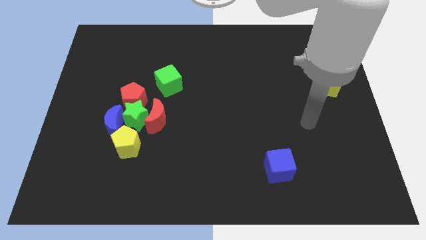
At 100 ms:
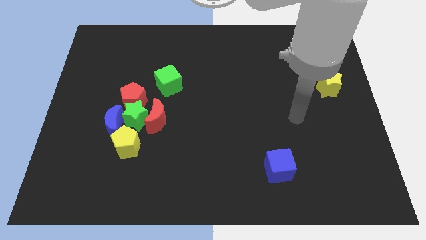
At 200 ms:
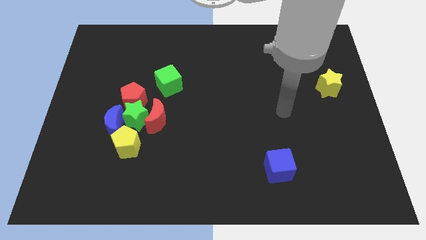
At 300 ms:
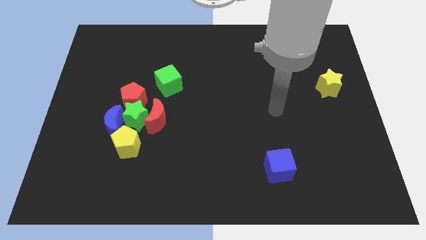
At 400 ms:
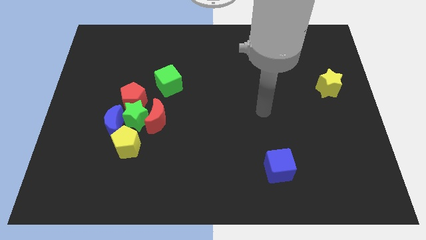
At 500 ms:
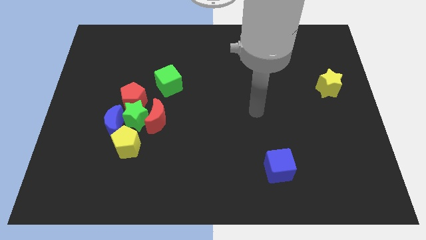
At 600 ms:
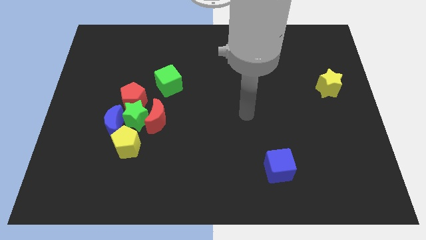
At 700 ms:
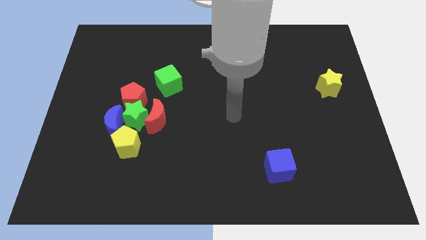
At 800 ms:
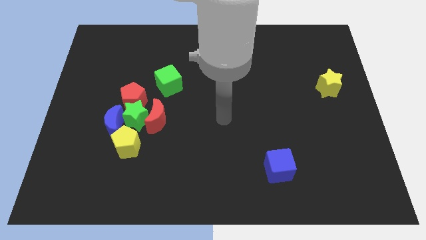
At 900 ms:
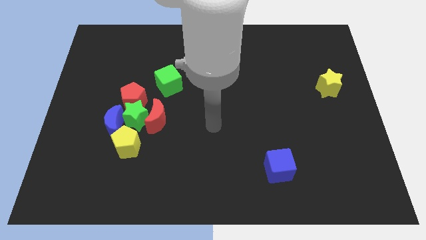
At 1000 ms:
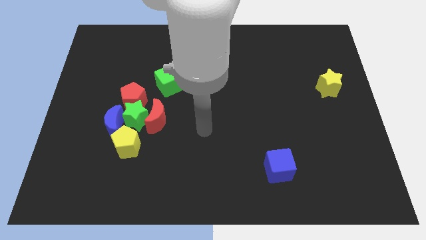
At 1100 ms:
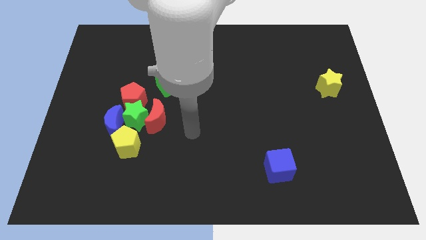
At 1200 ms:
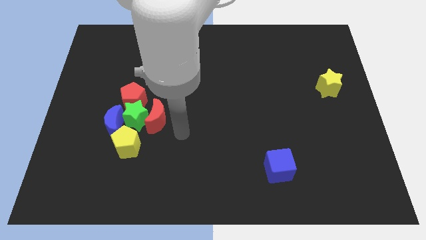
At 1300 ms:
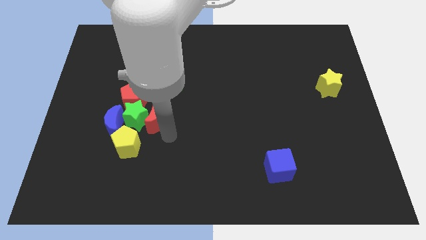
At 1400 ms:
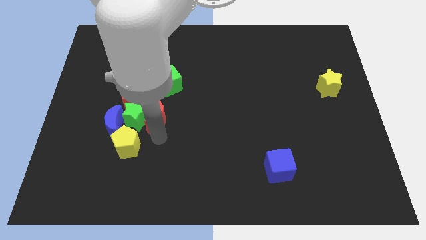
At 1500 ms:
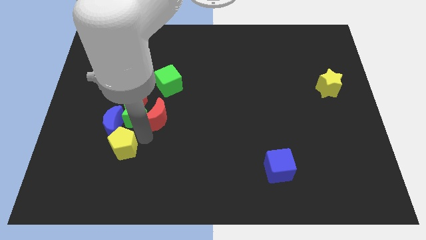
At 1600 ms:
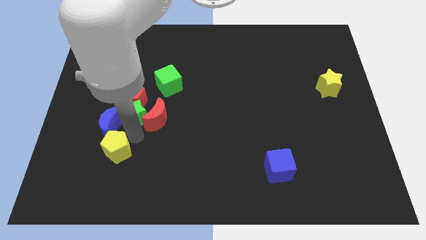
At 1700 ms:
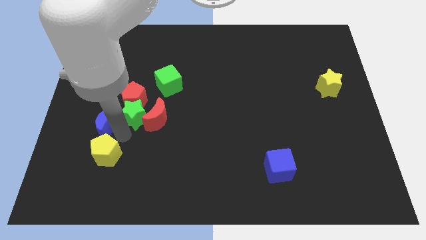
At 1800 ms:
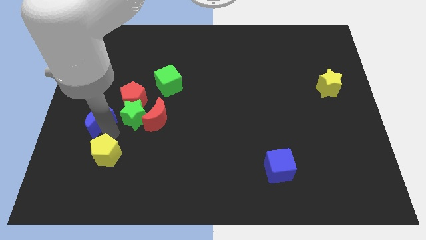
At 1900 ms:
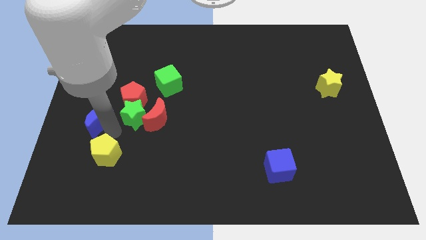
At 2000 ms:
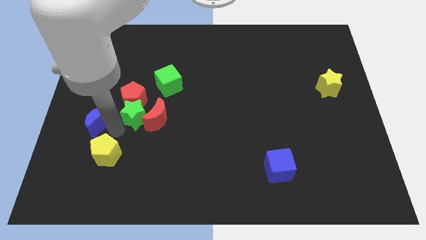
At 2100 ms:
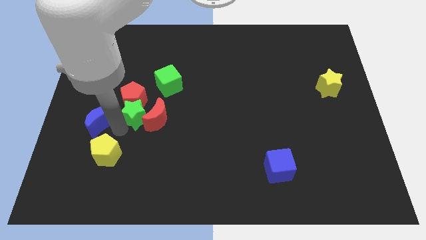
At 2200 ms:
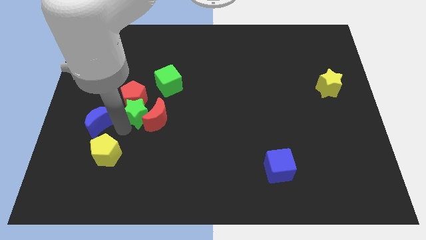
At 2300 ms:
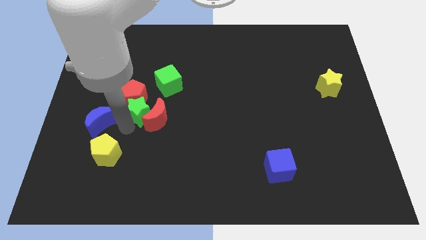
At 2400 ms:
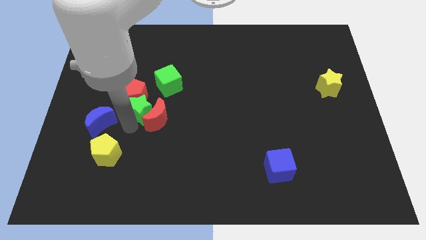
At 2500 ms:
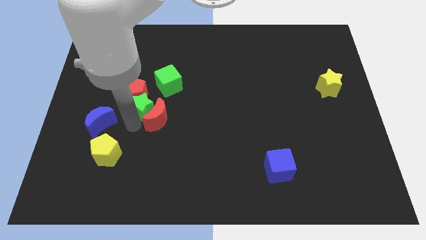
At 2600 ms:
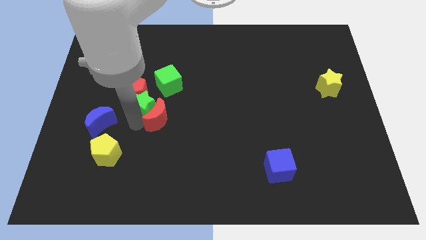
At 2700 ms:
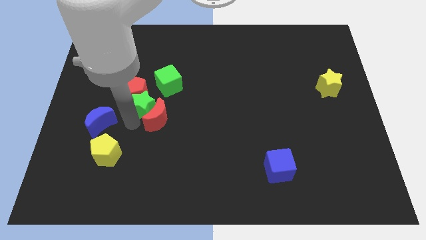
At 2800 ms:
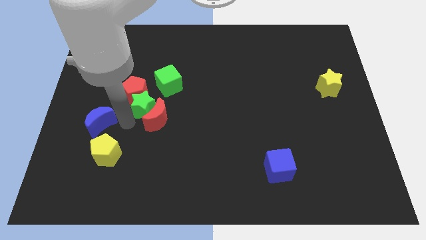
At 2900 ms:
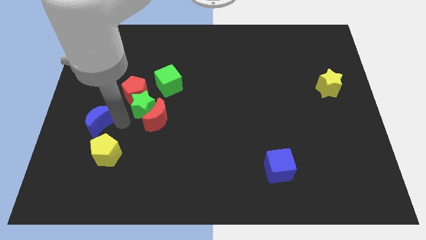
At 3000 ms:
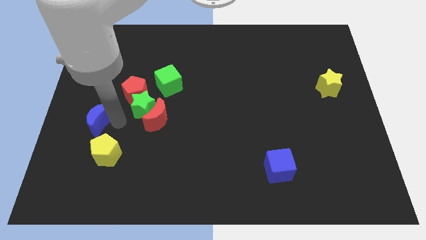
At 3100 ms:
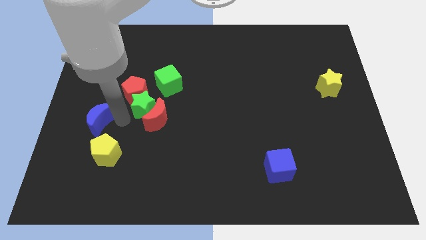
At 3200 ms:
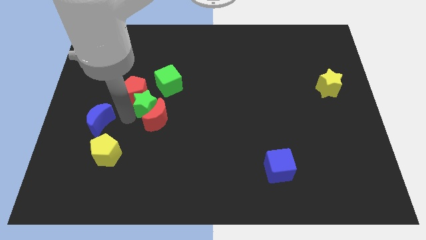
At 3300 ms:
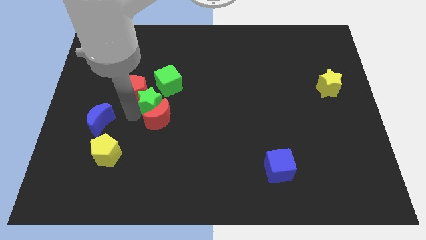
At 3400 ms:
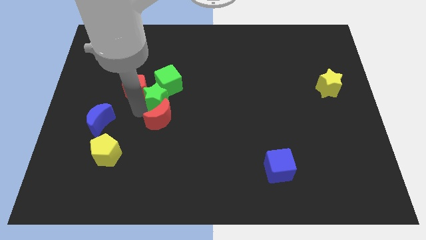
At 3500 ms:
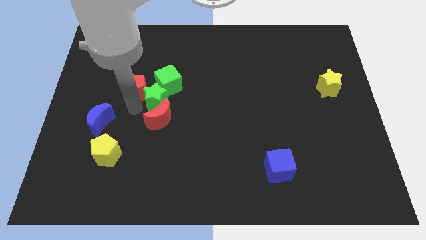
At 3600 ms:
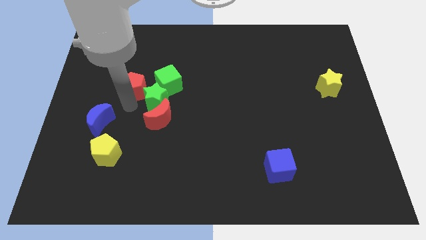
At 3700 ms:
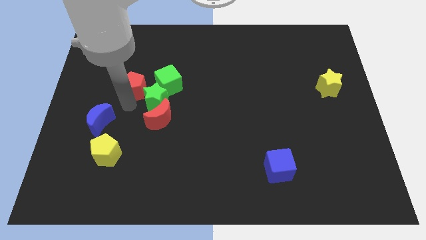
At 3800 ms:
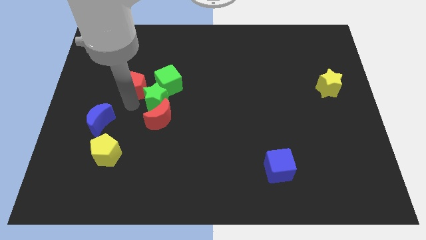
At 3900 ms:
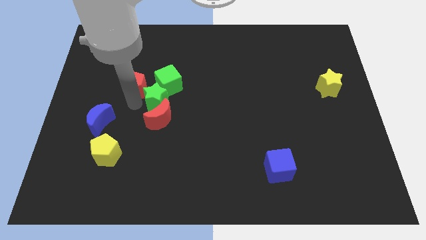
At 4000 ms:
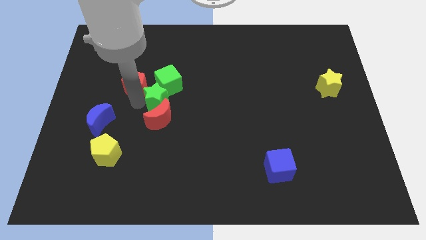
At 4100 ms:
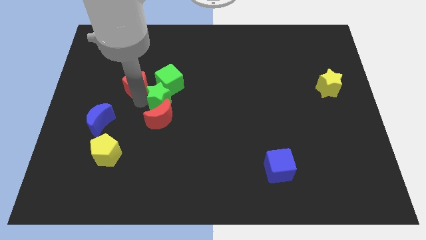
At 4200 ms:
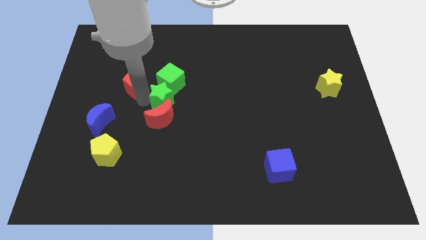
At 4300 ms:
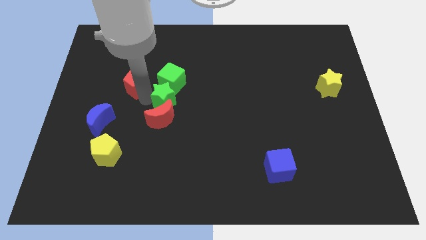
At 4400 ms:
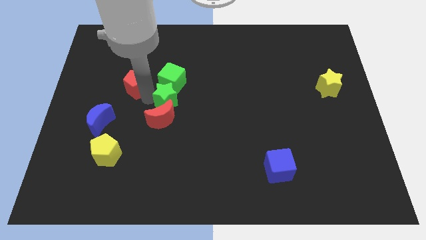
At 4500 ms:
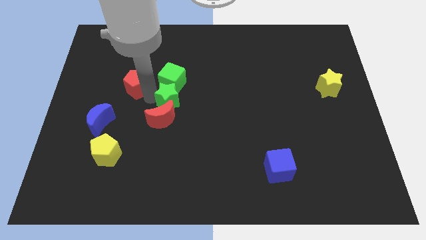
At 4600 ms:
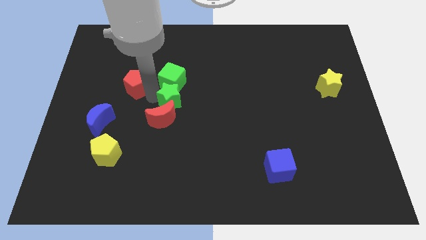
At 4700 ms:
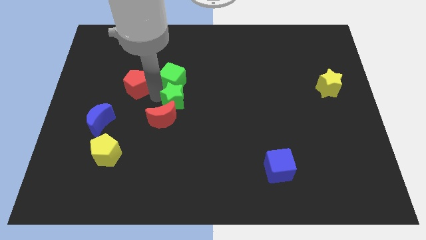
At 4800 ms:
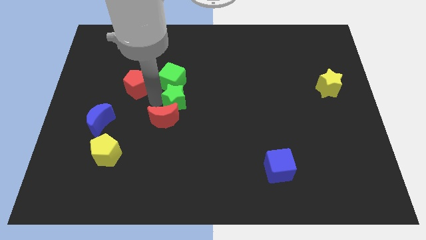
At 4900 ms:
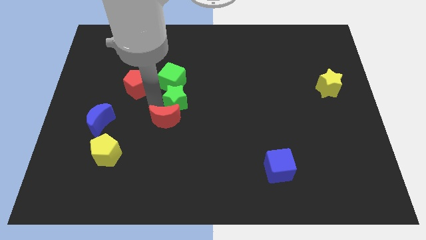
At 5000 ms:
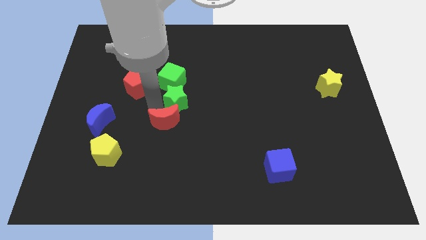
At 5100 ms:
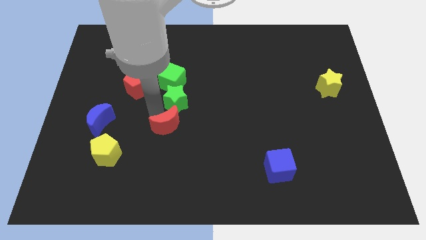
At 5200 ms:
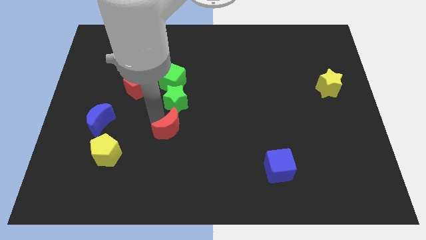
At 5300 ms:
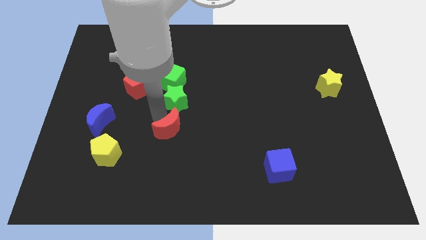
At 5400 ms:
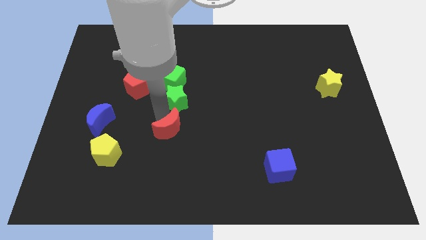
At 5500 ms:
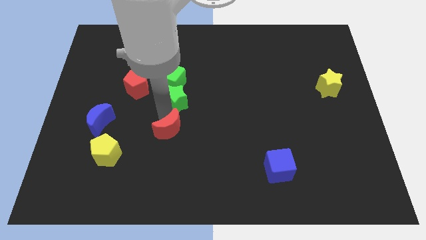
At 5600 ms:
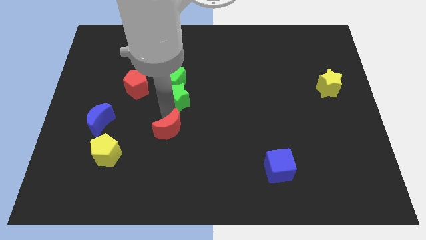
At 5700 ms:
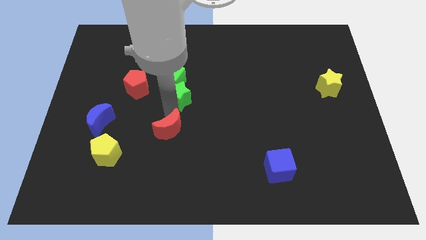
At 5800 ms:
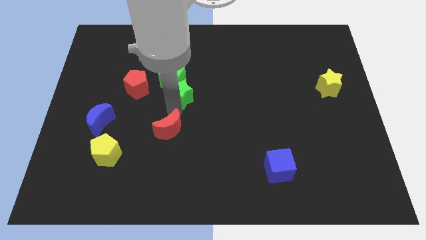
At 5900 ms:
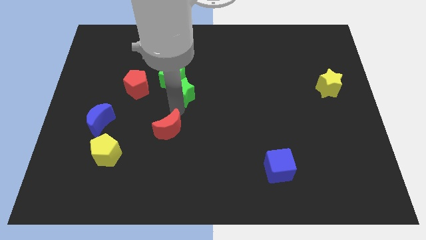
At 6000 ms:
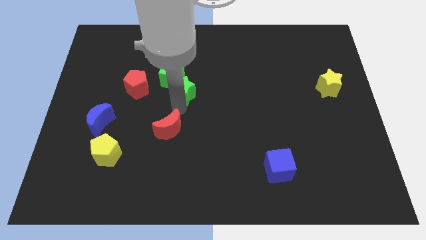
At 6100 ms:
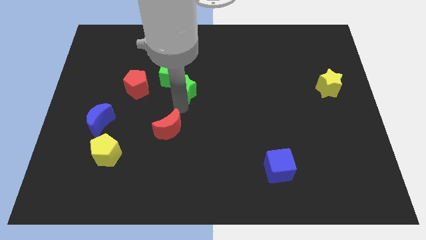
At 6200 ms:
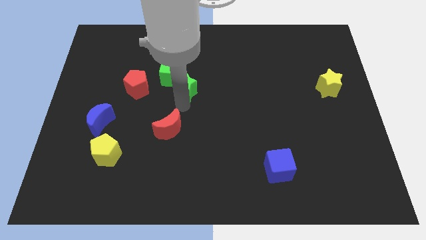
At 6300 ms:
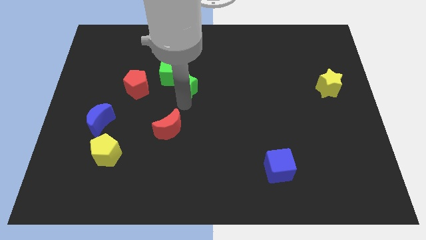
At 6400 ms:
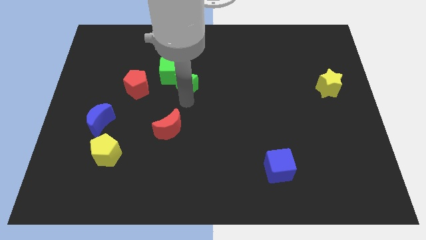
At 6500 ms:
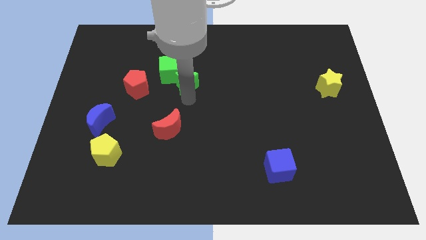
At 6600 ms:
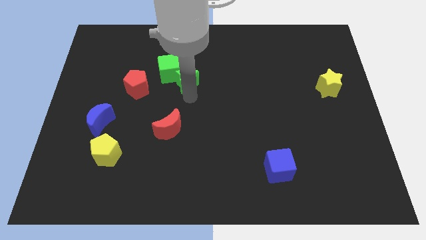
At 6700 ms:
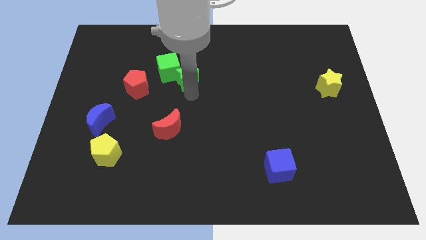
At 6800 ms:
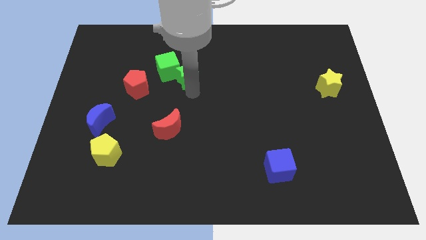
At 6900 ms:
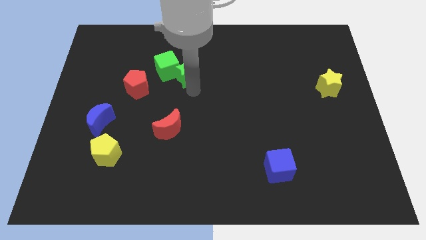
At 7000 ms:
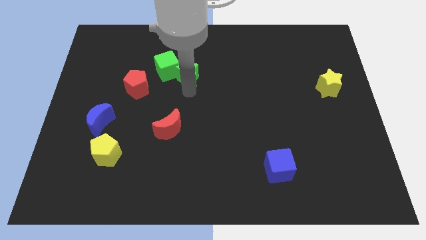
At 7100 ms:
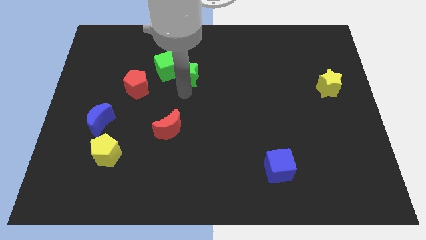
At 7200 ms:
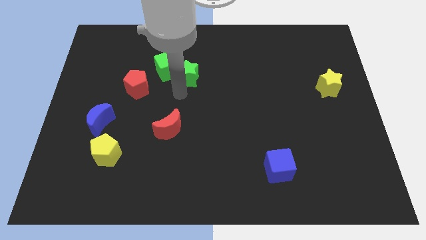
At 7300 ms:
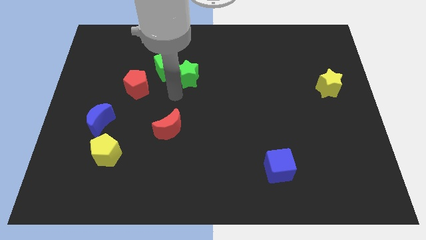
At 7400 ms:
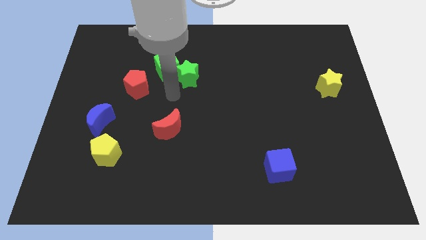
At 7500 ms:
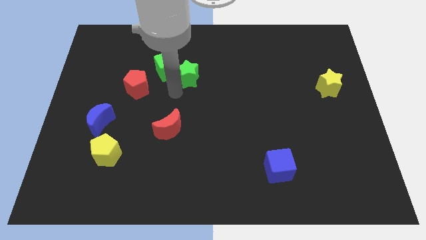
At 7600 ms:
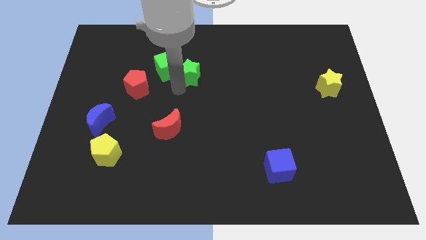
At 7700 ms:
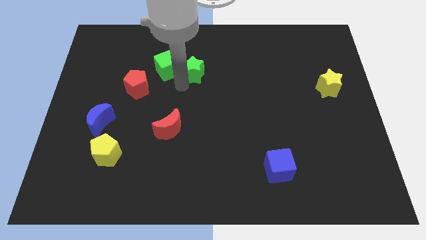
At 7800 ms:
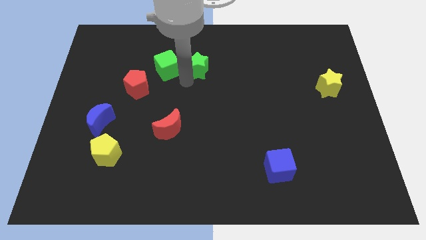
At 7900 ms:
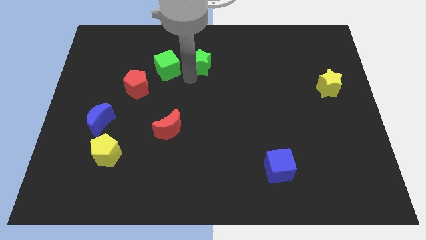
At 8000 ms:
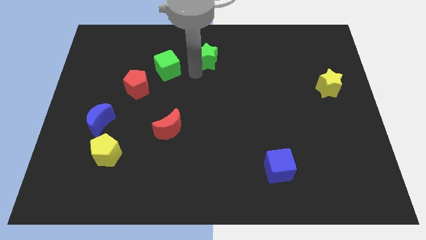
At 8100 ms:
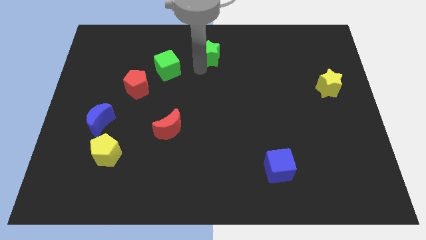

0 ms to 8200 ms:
slide the green star to the towards your base
